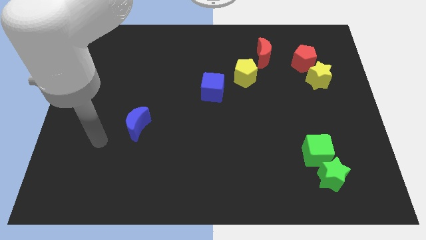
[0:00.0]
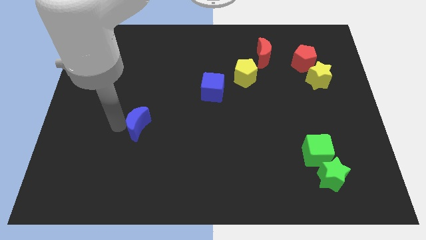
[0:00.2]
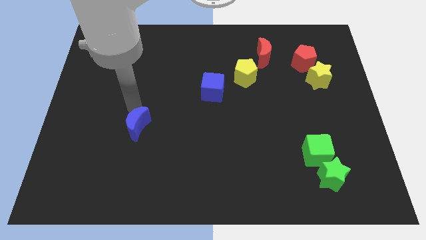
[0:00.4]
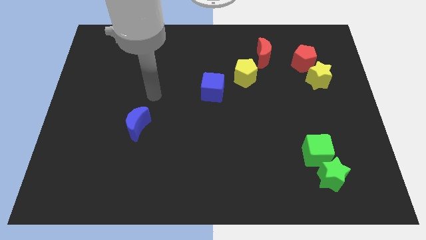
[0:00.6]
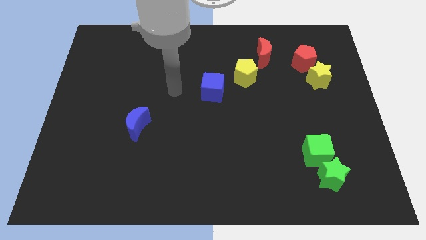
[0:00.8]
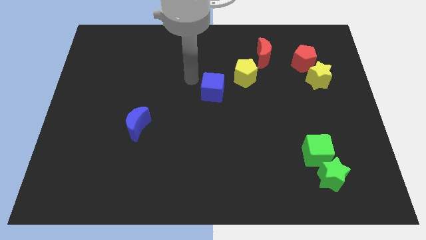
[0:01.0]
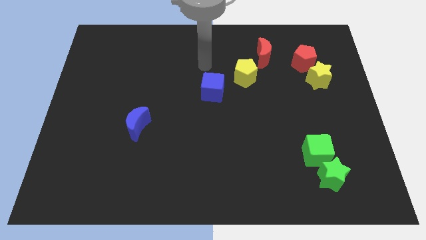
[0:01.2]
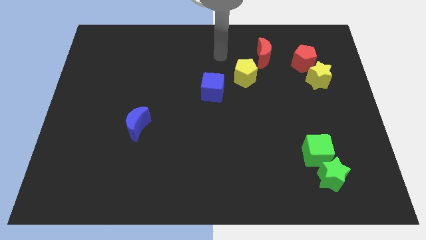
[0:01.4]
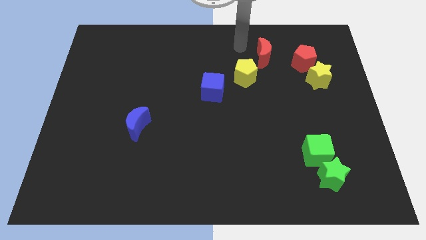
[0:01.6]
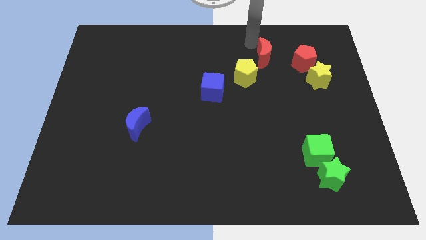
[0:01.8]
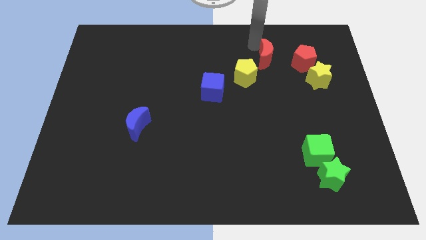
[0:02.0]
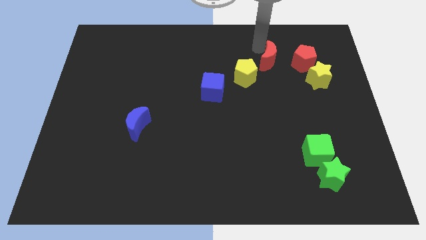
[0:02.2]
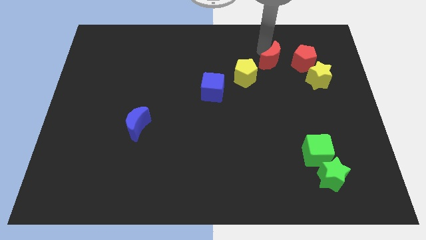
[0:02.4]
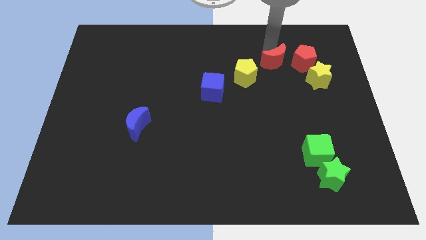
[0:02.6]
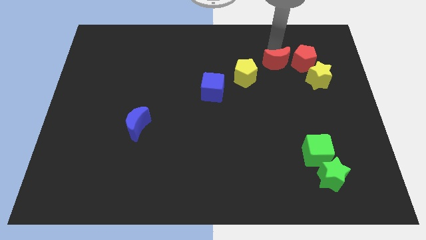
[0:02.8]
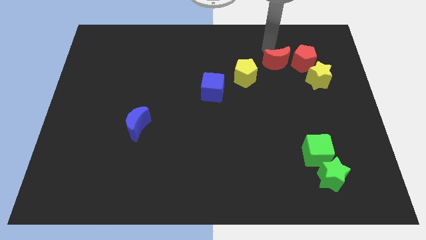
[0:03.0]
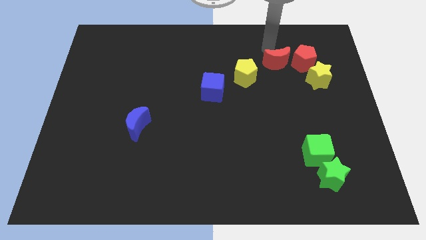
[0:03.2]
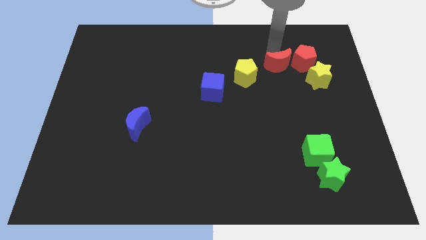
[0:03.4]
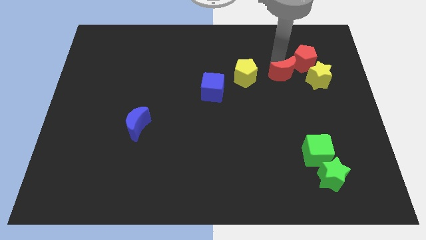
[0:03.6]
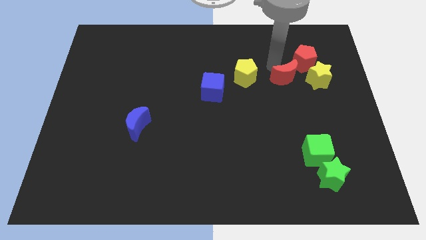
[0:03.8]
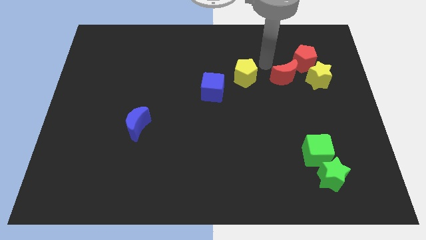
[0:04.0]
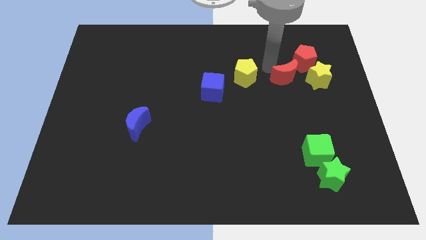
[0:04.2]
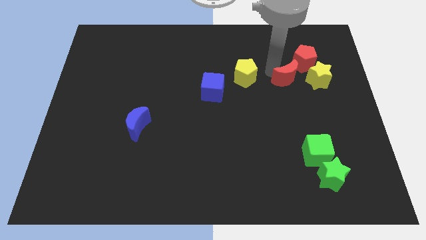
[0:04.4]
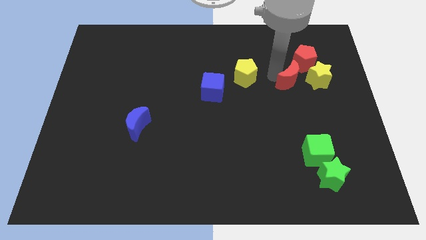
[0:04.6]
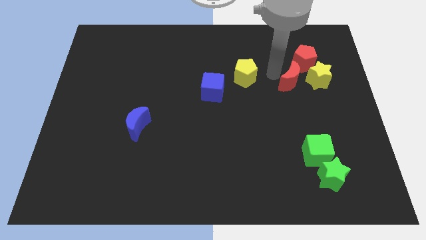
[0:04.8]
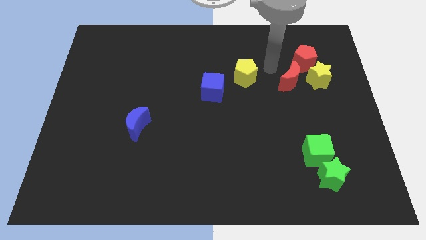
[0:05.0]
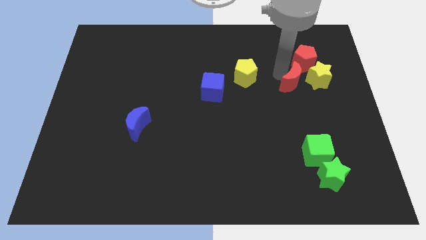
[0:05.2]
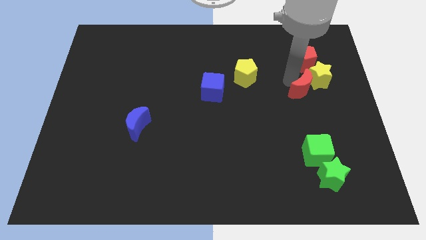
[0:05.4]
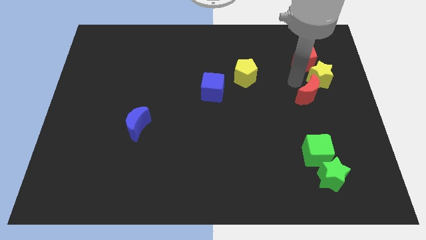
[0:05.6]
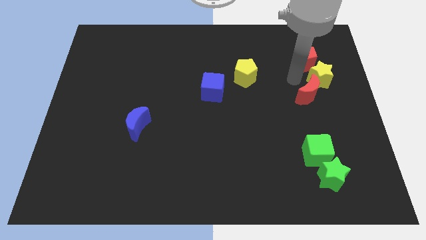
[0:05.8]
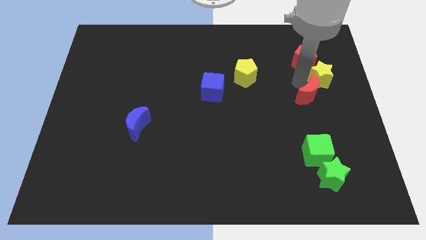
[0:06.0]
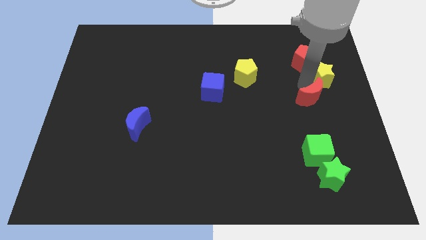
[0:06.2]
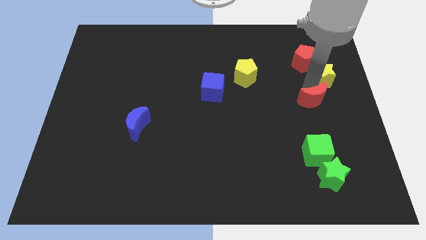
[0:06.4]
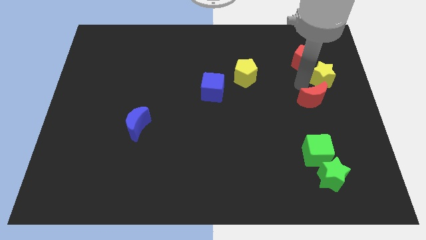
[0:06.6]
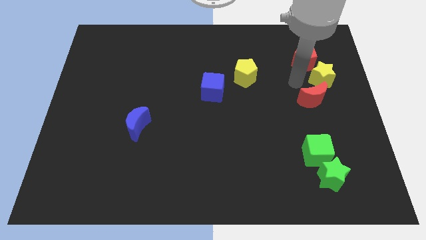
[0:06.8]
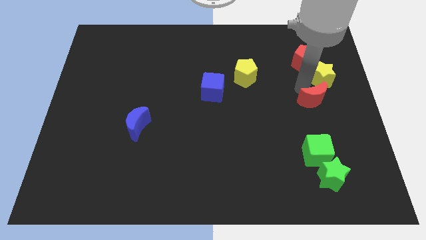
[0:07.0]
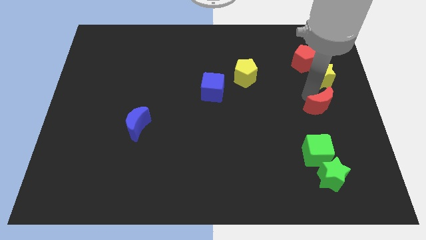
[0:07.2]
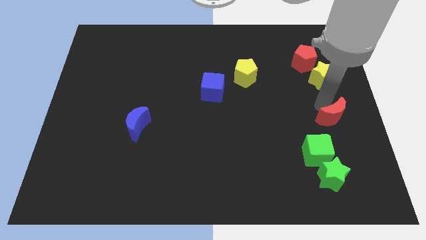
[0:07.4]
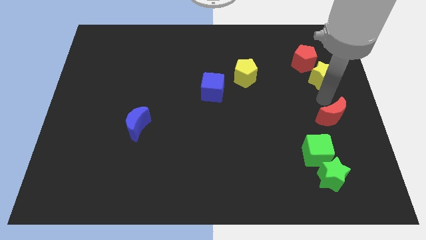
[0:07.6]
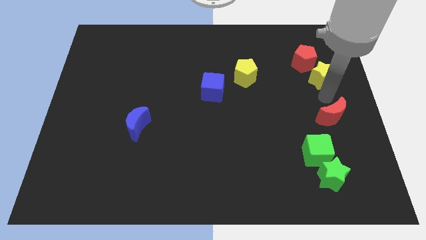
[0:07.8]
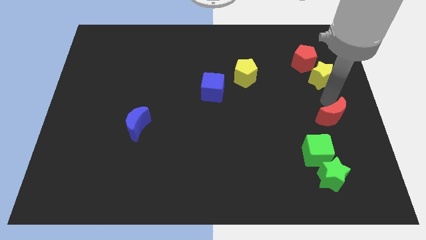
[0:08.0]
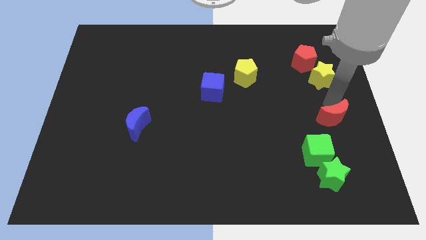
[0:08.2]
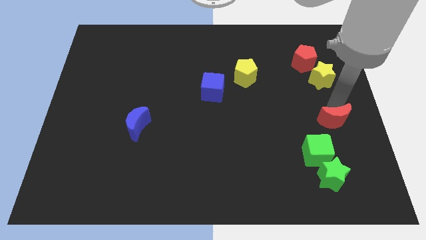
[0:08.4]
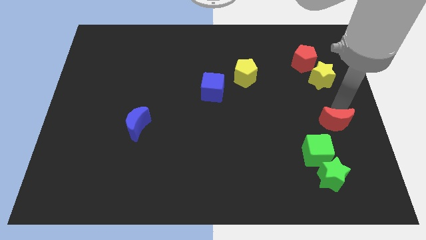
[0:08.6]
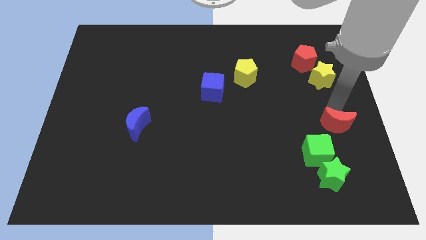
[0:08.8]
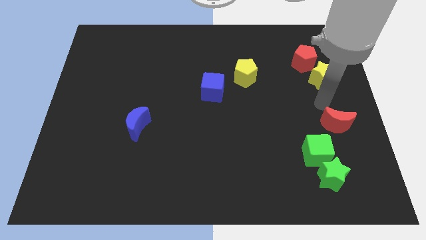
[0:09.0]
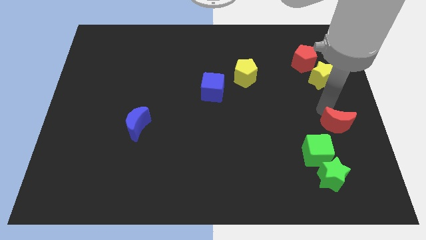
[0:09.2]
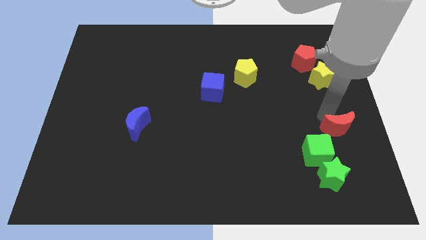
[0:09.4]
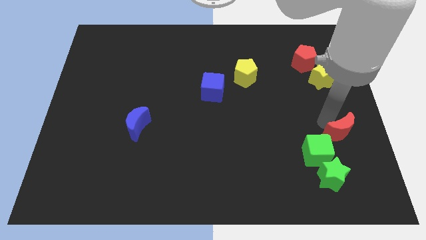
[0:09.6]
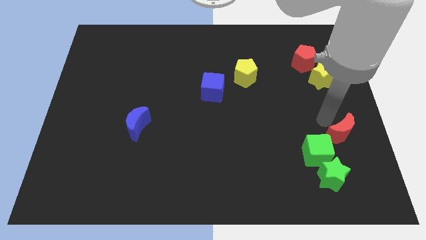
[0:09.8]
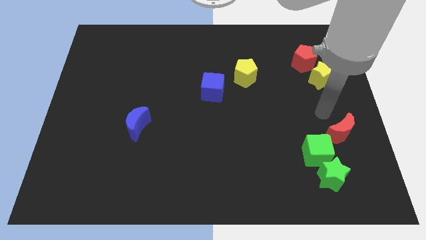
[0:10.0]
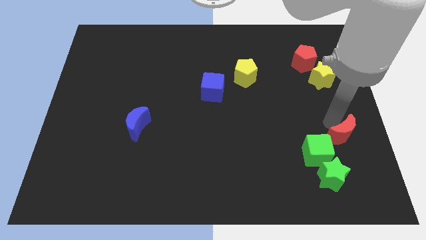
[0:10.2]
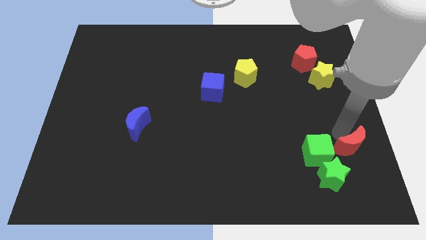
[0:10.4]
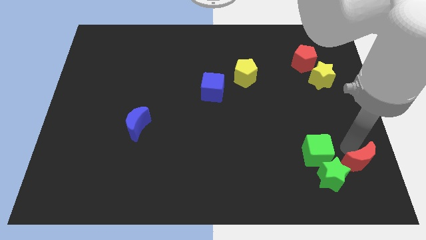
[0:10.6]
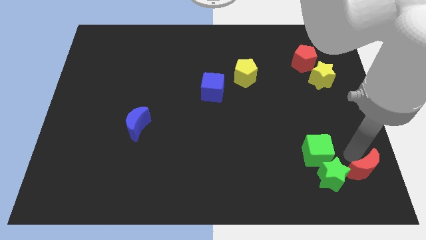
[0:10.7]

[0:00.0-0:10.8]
move the red moon to the bottom right of the board

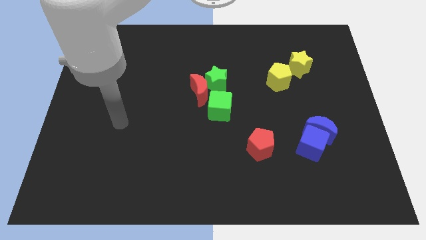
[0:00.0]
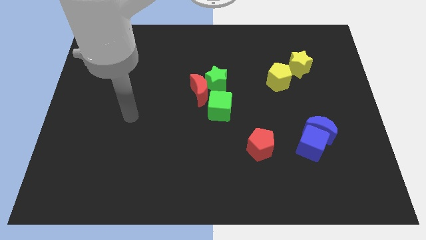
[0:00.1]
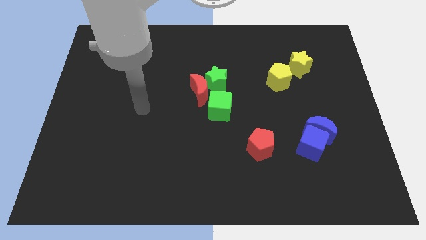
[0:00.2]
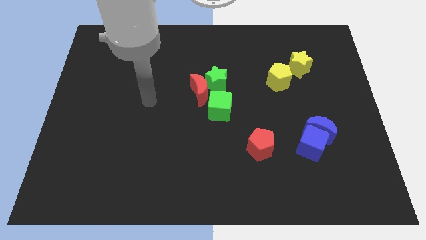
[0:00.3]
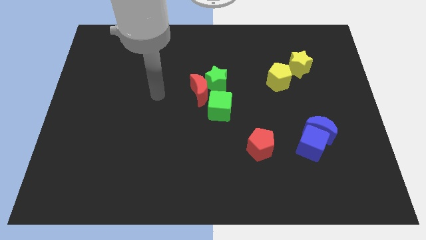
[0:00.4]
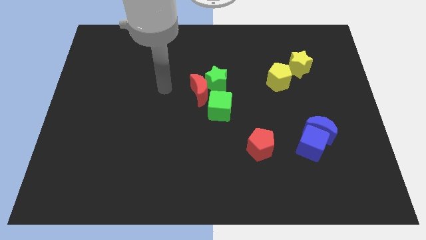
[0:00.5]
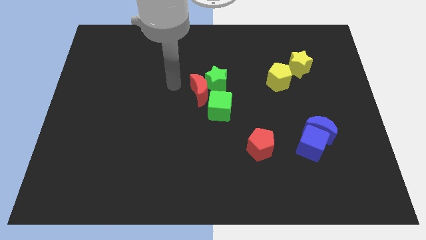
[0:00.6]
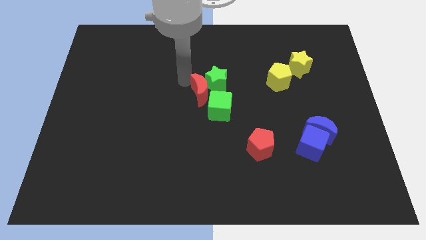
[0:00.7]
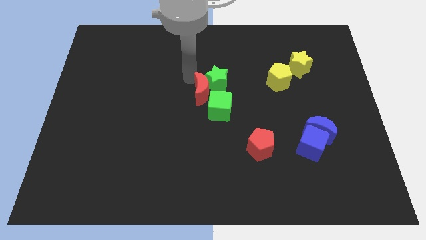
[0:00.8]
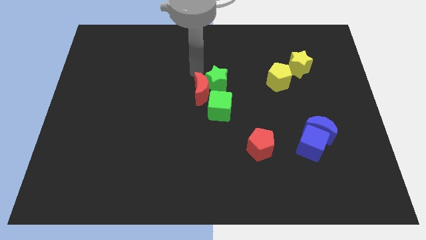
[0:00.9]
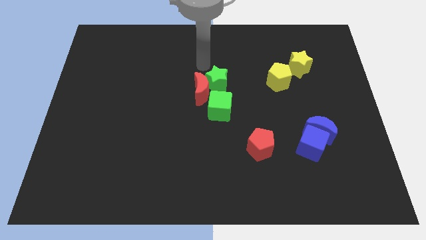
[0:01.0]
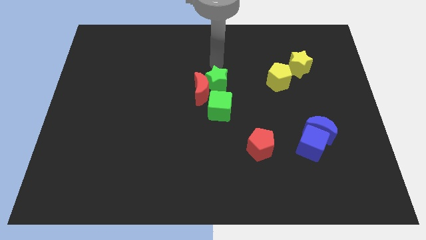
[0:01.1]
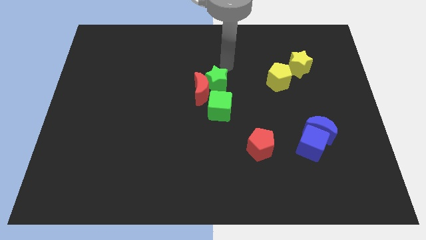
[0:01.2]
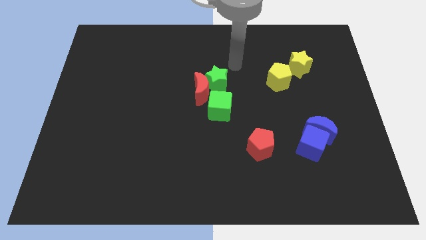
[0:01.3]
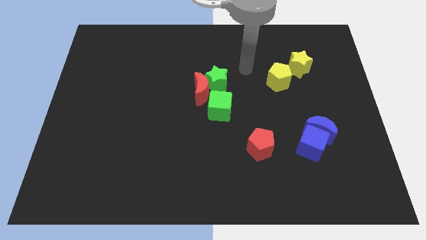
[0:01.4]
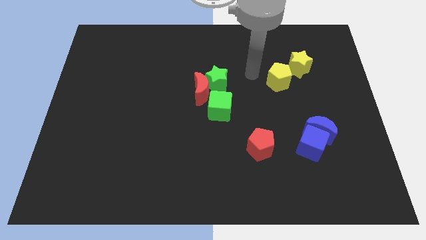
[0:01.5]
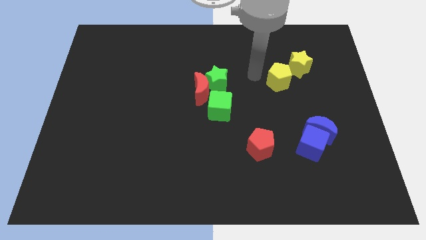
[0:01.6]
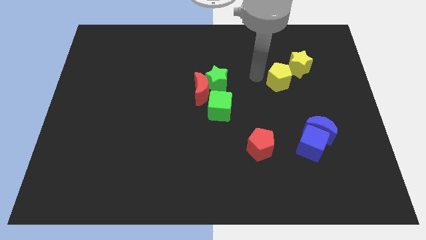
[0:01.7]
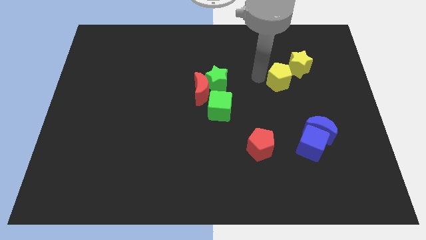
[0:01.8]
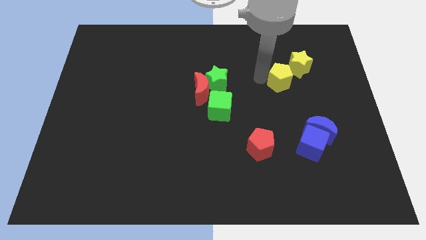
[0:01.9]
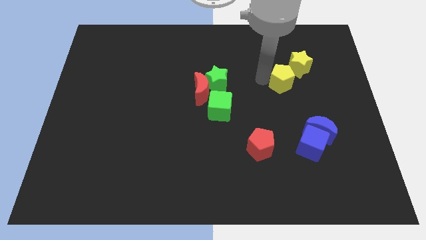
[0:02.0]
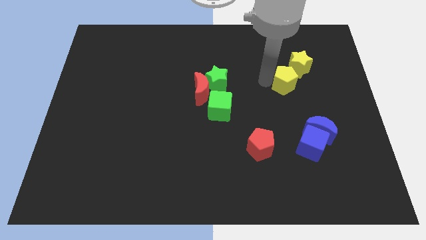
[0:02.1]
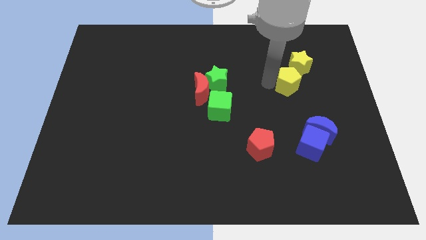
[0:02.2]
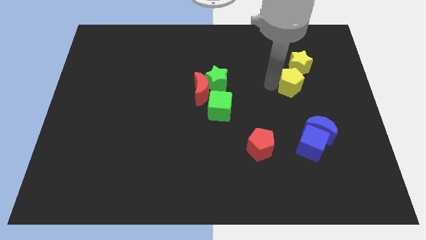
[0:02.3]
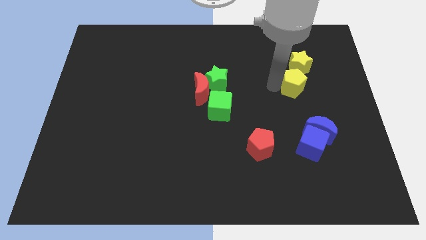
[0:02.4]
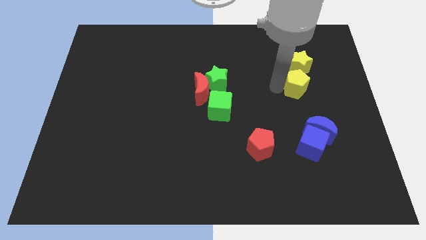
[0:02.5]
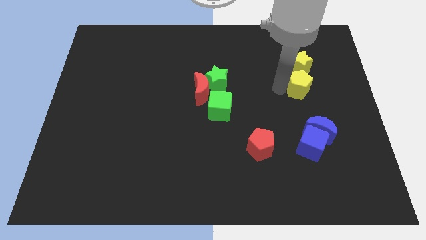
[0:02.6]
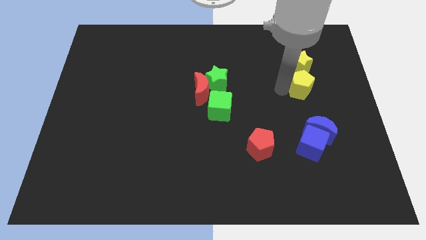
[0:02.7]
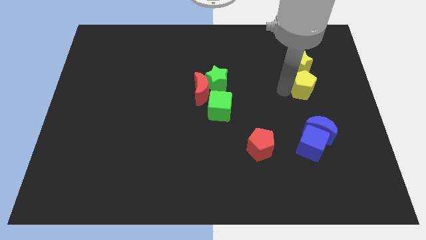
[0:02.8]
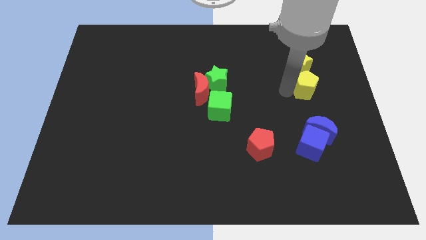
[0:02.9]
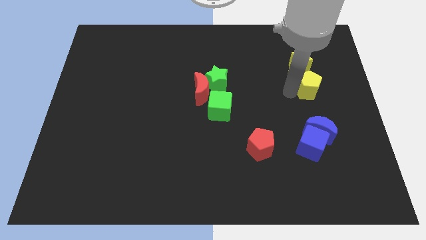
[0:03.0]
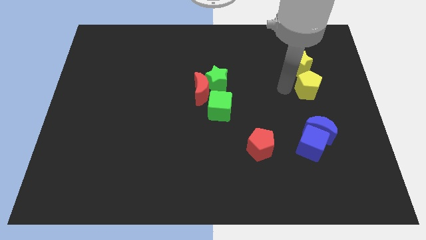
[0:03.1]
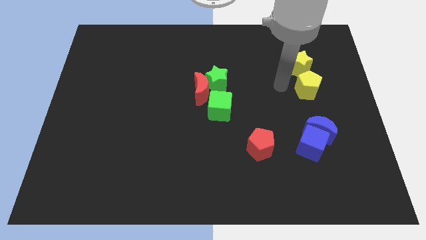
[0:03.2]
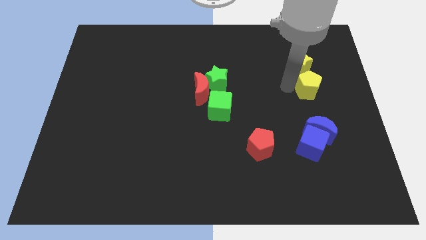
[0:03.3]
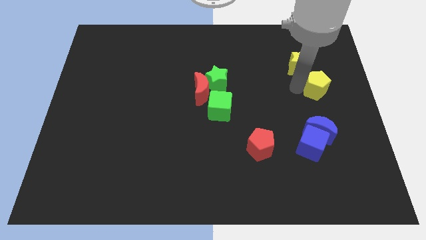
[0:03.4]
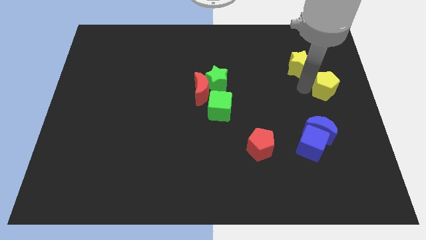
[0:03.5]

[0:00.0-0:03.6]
put the yellow pentagon to the right side
